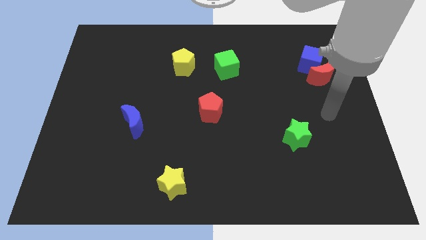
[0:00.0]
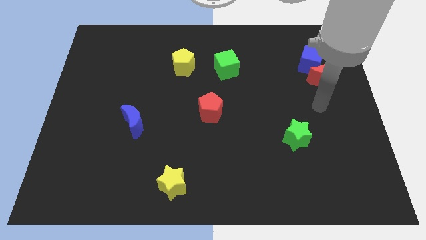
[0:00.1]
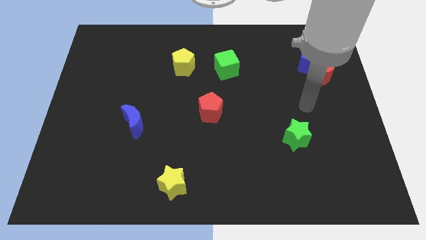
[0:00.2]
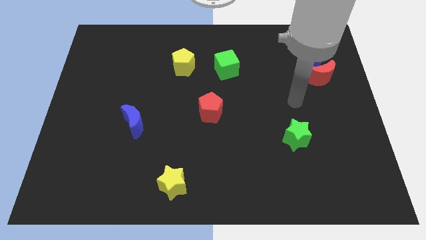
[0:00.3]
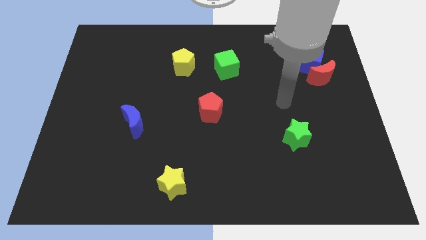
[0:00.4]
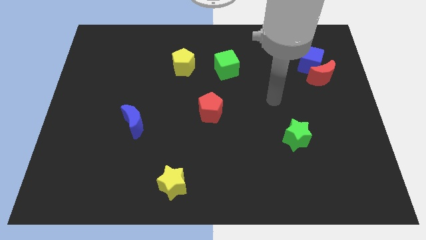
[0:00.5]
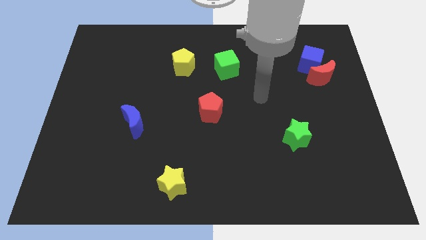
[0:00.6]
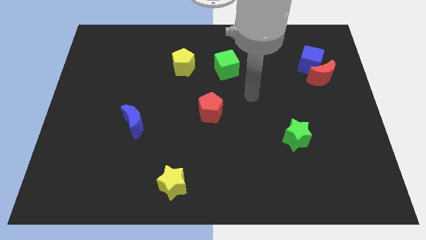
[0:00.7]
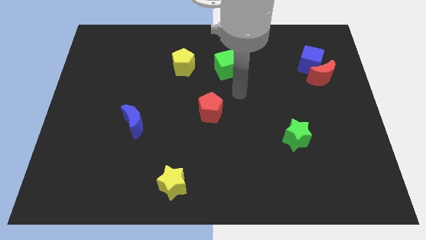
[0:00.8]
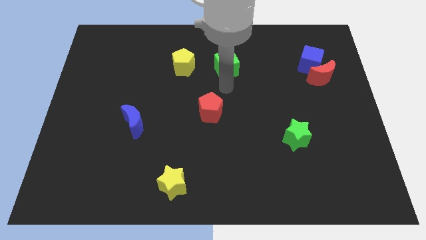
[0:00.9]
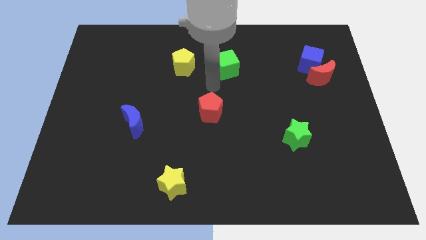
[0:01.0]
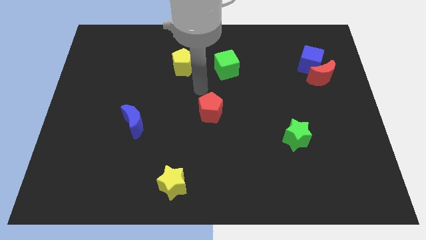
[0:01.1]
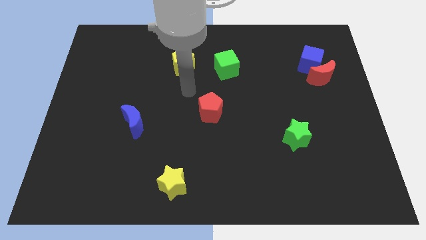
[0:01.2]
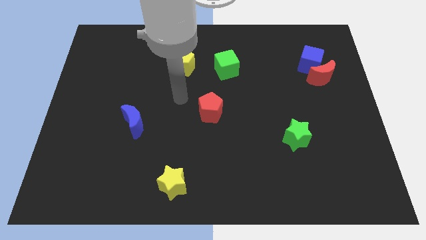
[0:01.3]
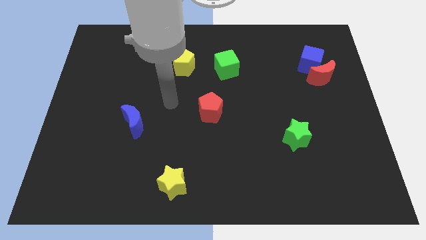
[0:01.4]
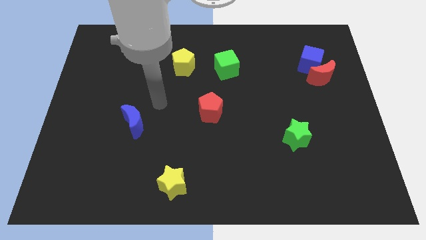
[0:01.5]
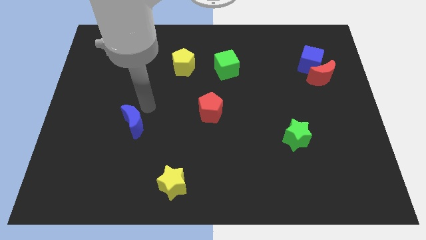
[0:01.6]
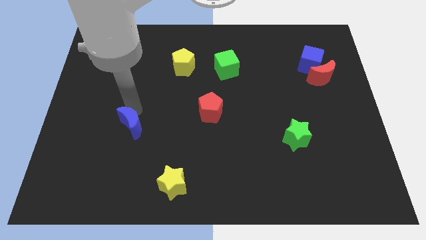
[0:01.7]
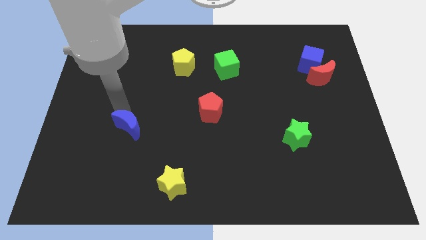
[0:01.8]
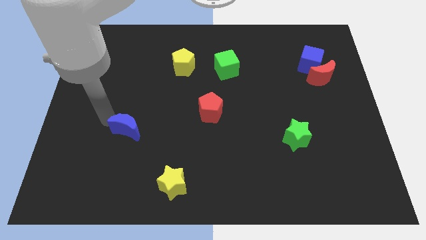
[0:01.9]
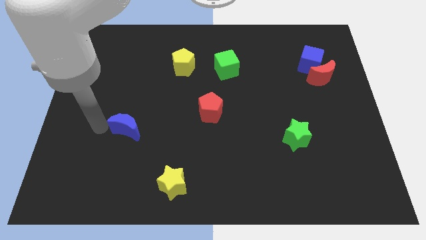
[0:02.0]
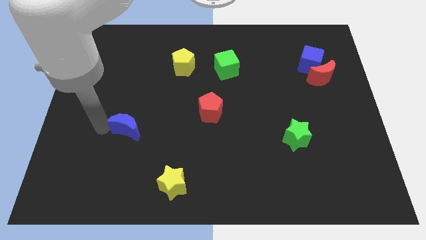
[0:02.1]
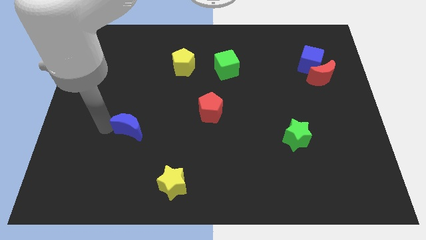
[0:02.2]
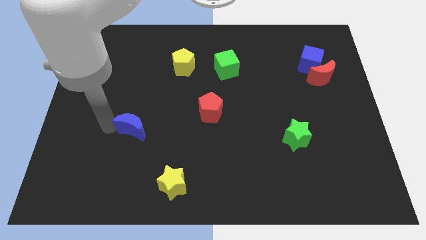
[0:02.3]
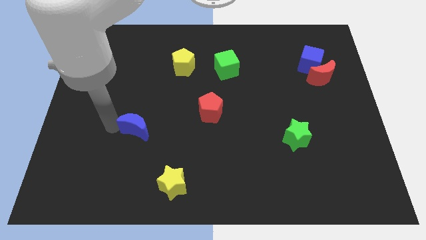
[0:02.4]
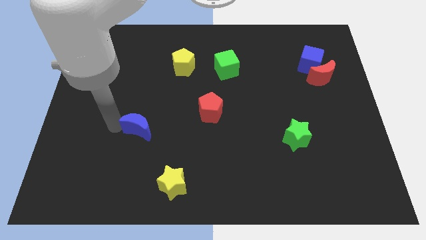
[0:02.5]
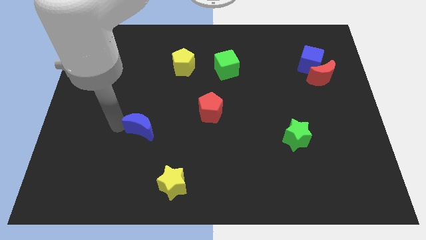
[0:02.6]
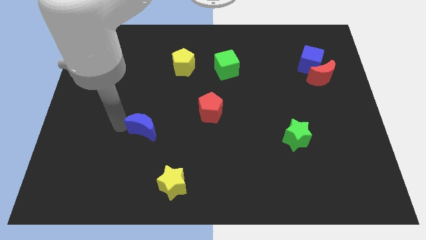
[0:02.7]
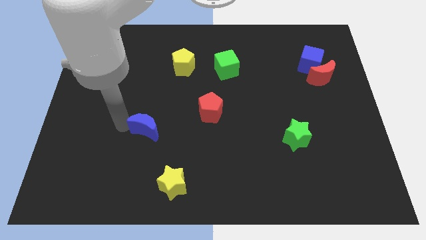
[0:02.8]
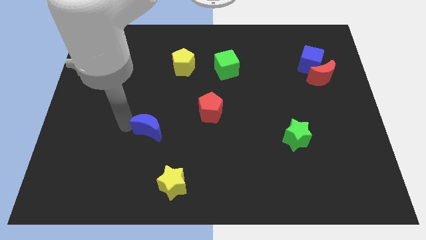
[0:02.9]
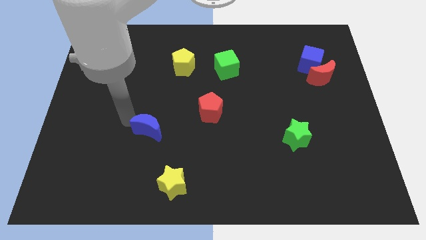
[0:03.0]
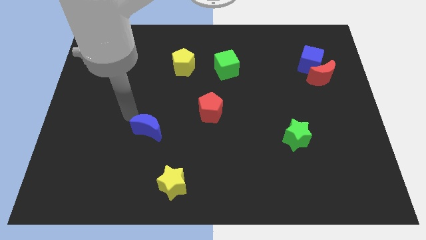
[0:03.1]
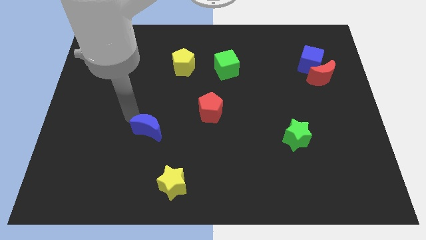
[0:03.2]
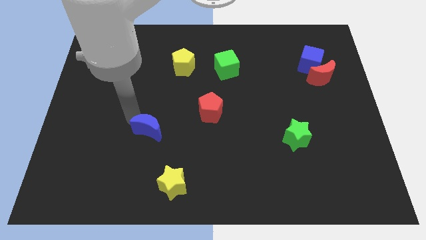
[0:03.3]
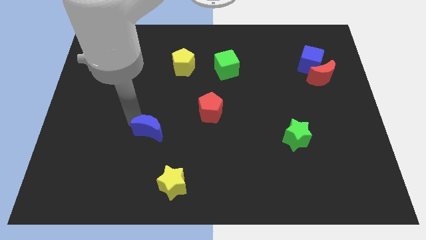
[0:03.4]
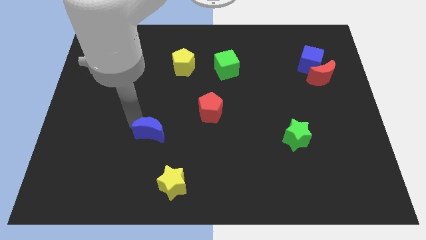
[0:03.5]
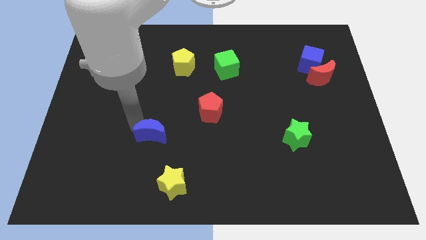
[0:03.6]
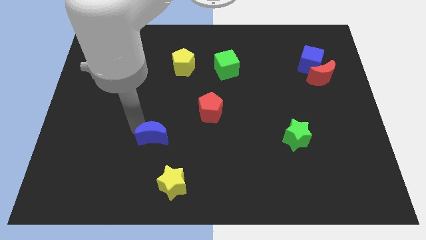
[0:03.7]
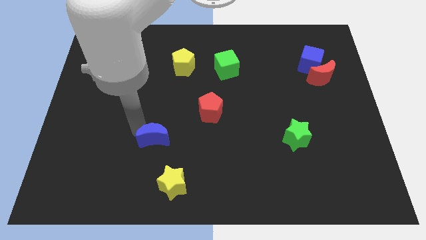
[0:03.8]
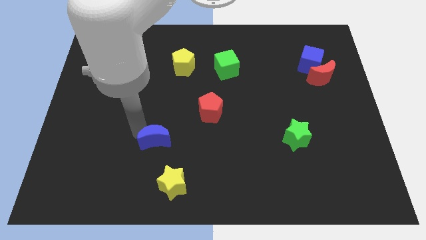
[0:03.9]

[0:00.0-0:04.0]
push the blue moon a little bit downwards and to the right diagonally

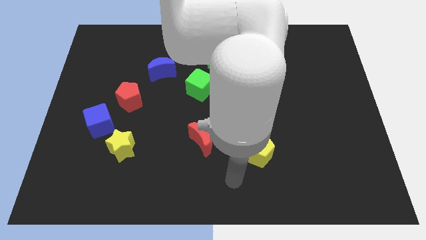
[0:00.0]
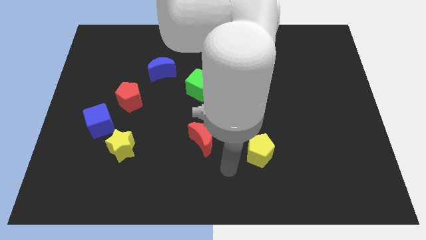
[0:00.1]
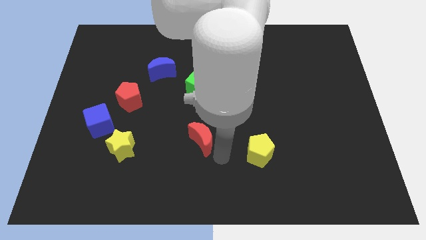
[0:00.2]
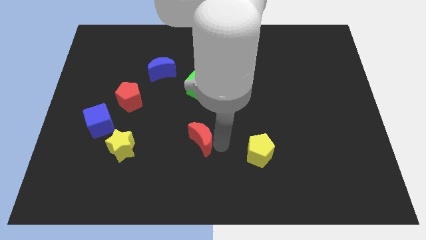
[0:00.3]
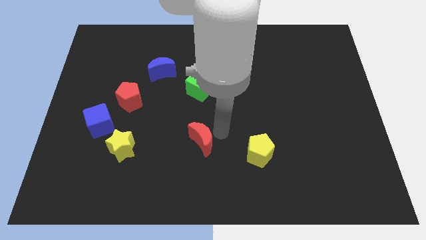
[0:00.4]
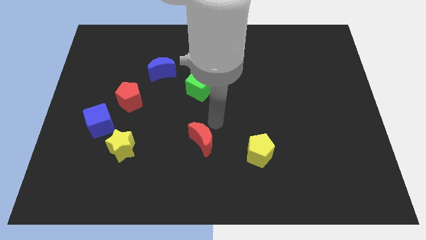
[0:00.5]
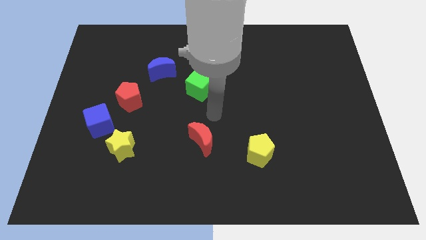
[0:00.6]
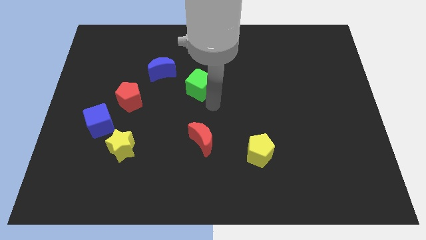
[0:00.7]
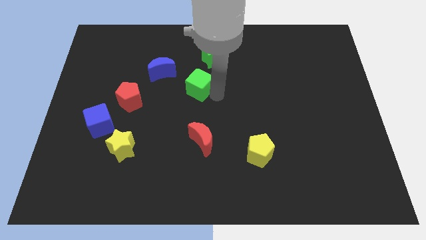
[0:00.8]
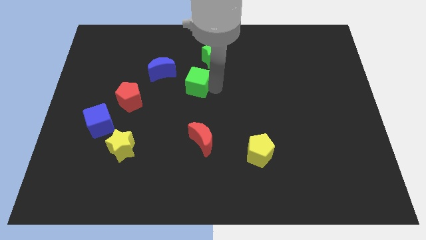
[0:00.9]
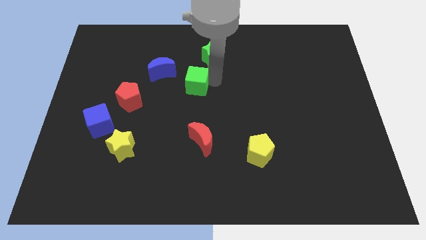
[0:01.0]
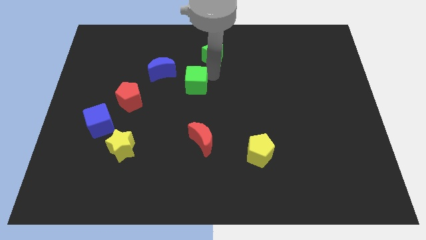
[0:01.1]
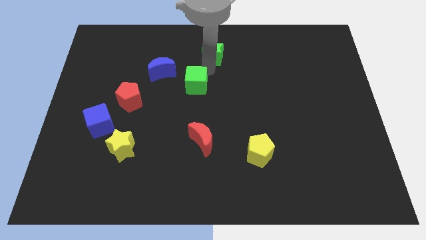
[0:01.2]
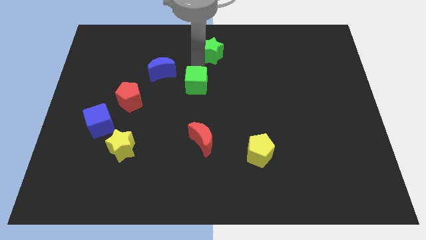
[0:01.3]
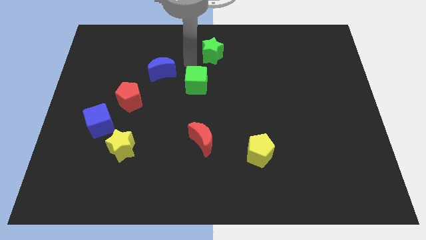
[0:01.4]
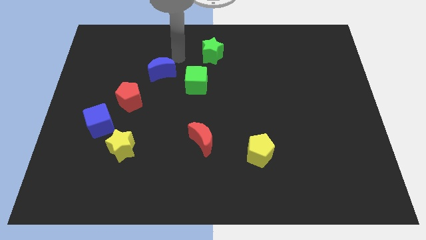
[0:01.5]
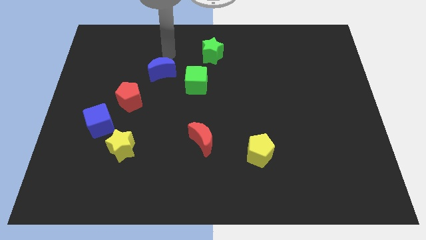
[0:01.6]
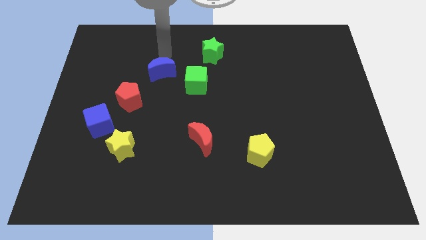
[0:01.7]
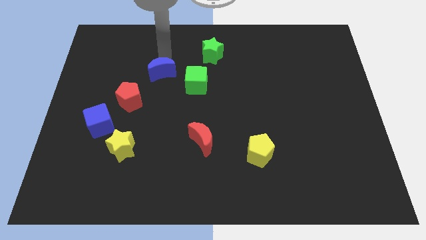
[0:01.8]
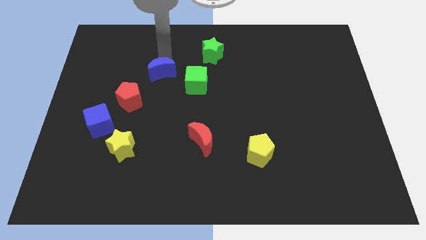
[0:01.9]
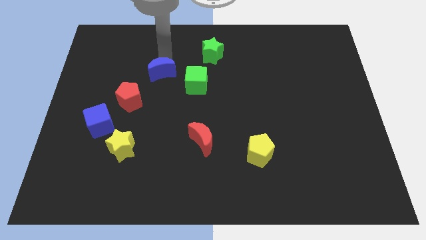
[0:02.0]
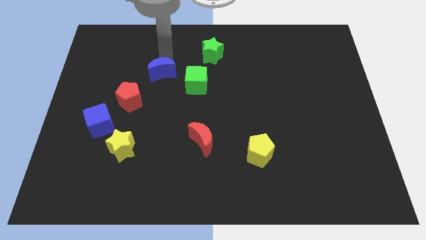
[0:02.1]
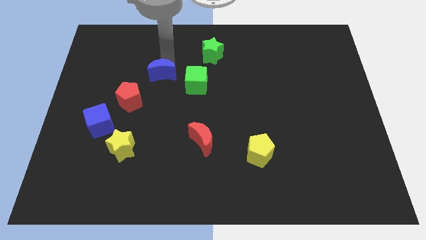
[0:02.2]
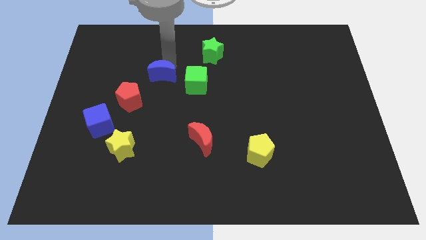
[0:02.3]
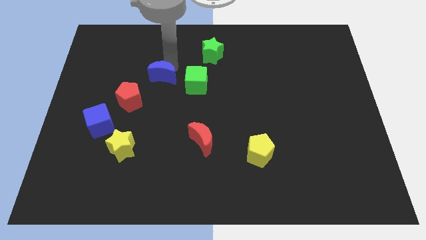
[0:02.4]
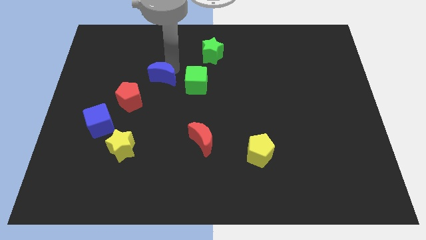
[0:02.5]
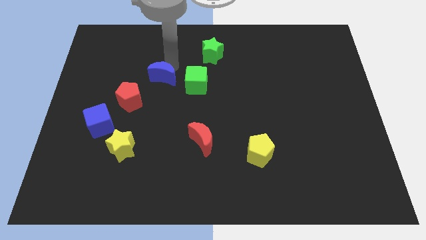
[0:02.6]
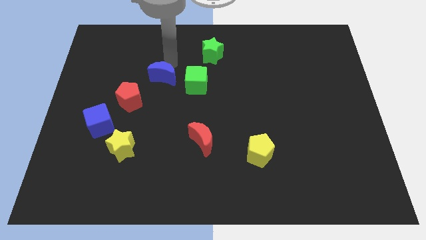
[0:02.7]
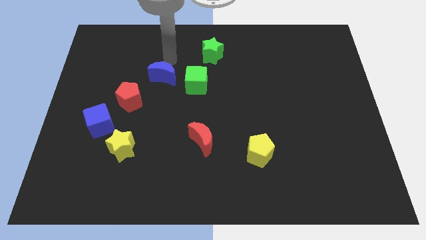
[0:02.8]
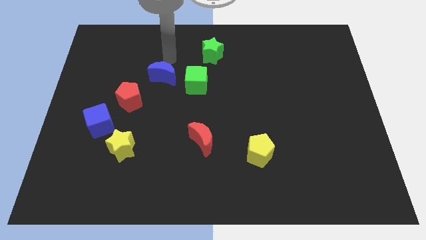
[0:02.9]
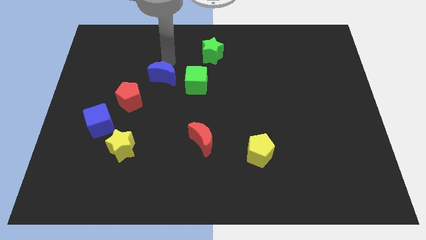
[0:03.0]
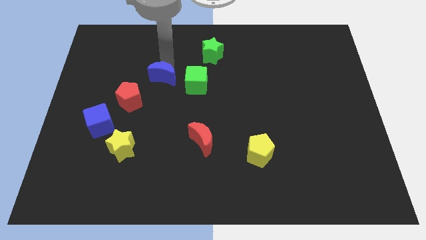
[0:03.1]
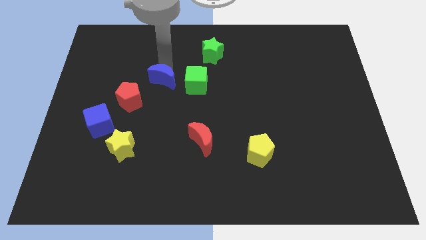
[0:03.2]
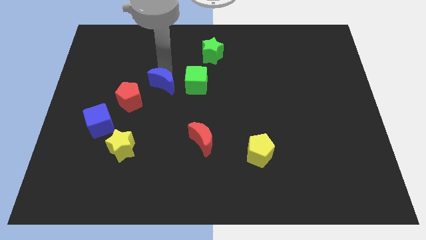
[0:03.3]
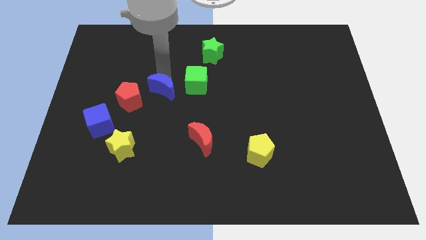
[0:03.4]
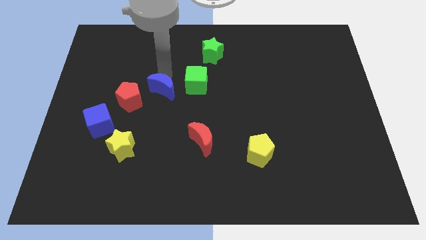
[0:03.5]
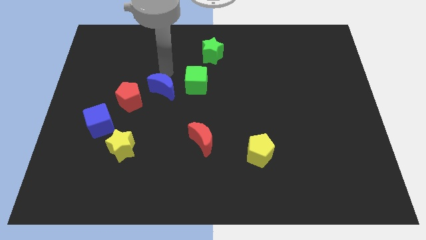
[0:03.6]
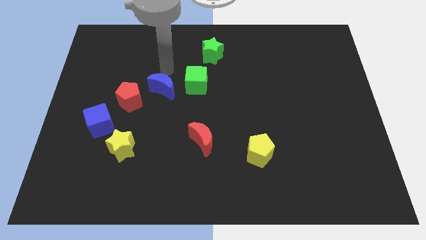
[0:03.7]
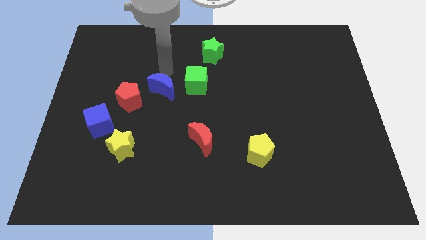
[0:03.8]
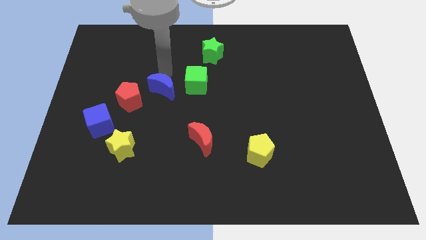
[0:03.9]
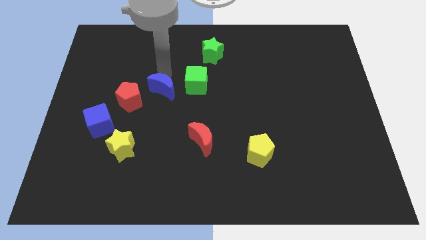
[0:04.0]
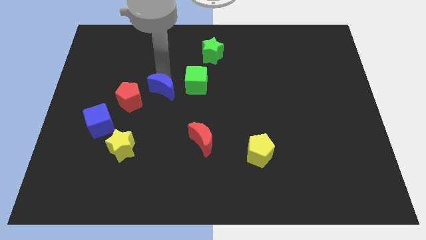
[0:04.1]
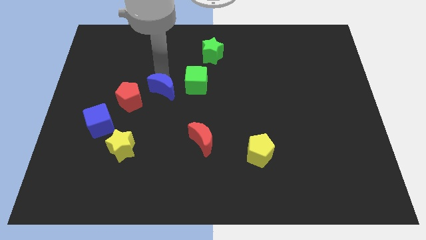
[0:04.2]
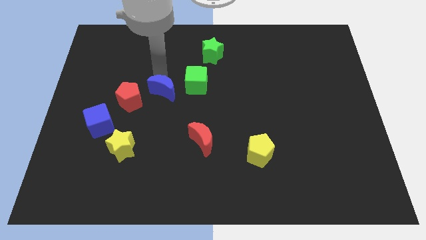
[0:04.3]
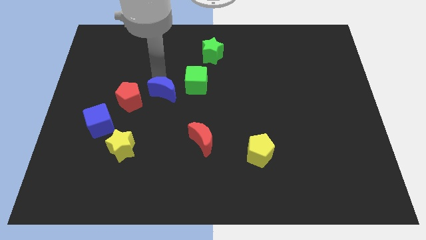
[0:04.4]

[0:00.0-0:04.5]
push the blue moon slightly down
